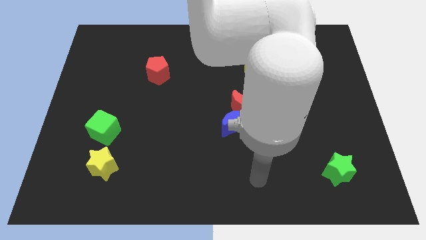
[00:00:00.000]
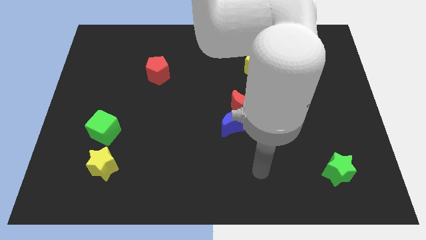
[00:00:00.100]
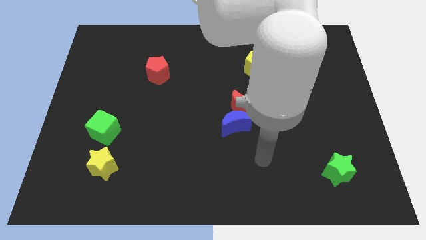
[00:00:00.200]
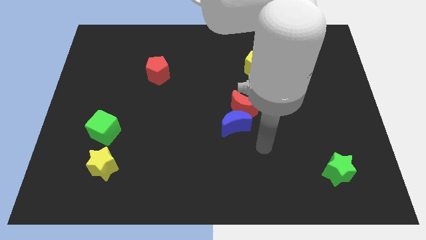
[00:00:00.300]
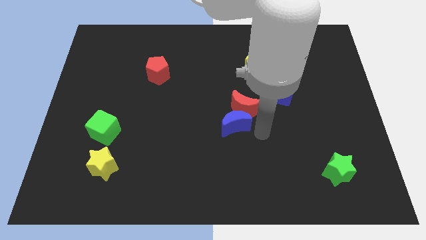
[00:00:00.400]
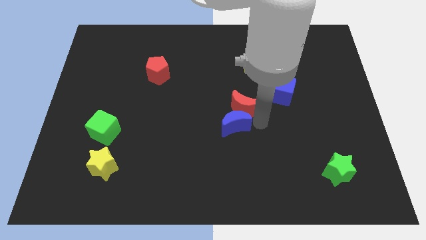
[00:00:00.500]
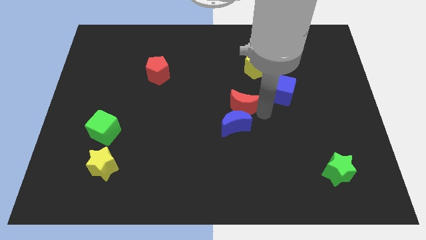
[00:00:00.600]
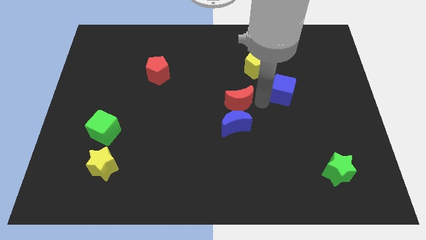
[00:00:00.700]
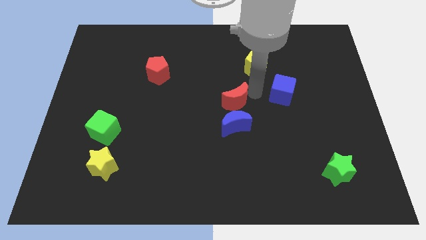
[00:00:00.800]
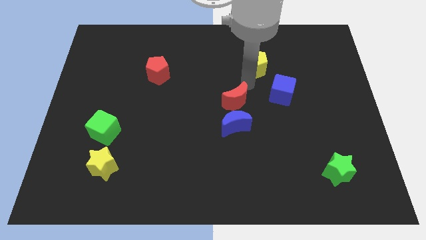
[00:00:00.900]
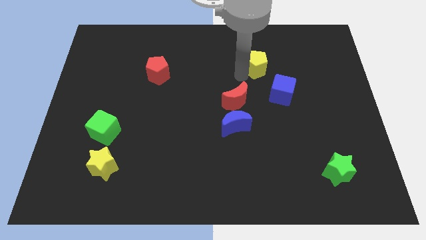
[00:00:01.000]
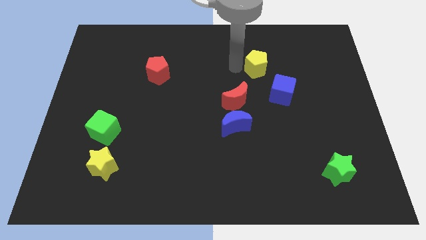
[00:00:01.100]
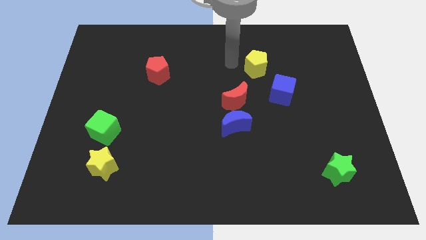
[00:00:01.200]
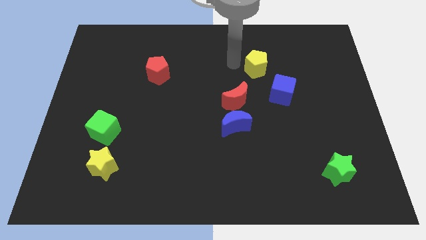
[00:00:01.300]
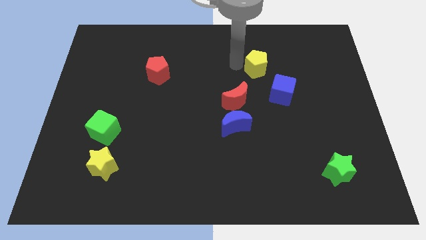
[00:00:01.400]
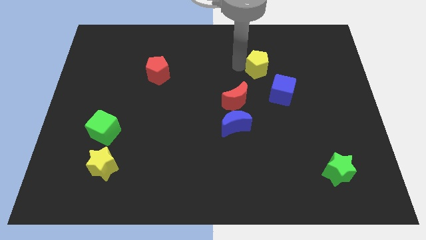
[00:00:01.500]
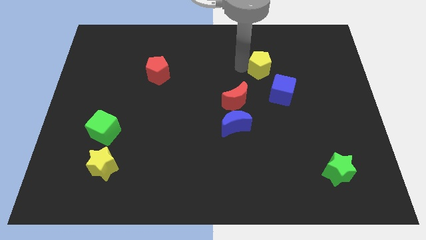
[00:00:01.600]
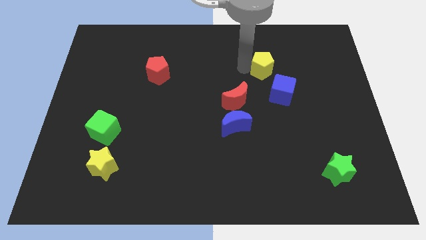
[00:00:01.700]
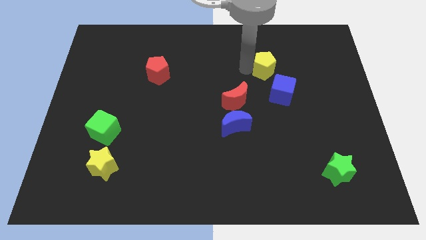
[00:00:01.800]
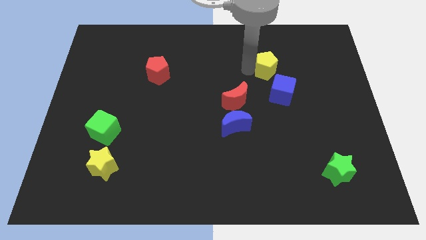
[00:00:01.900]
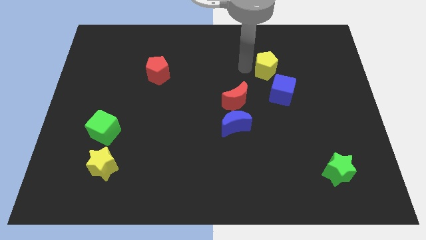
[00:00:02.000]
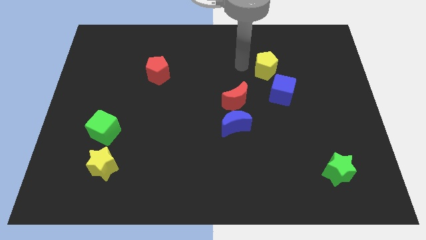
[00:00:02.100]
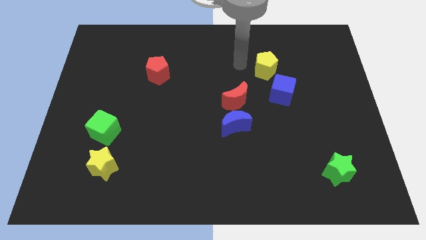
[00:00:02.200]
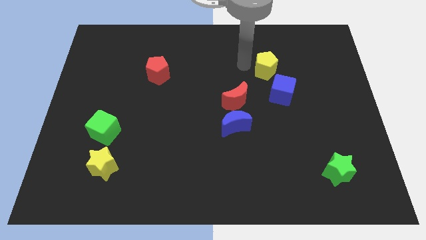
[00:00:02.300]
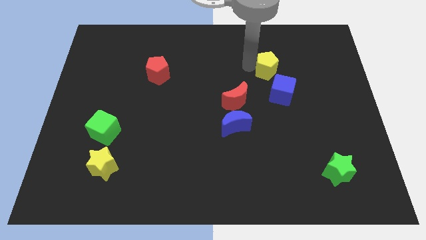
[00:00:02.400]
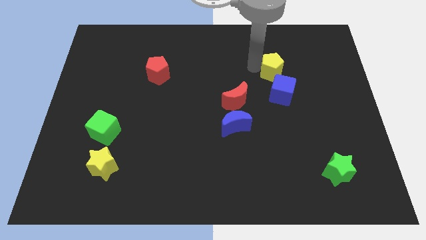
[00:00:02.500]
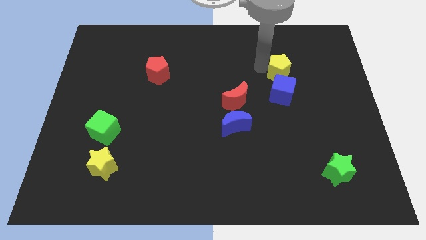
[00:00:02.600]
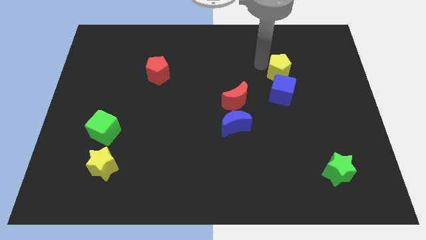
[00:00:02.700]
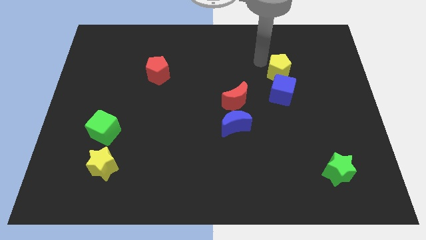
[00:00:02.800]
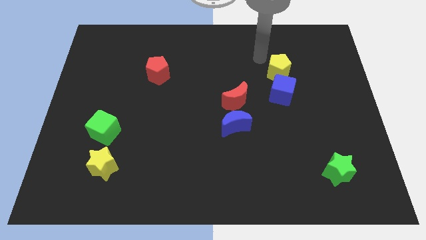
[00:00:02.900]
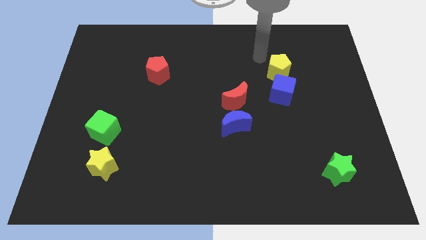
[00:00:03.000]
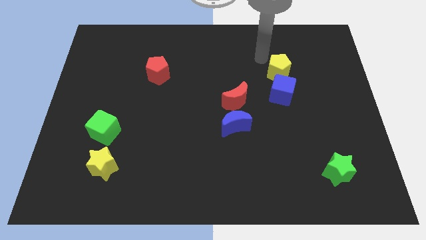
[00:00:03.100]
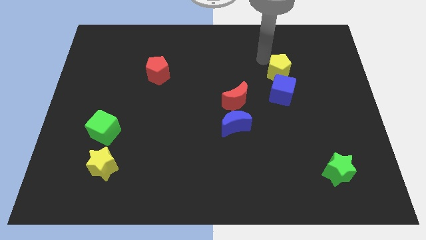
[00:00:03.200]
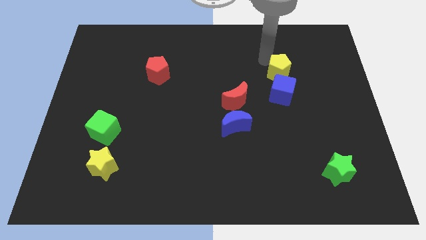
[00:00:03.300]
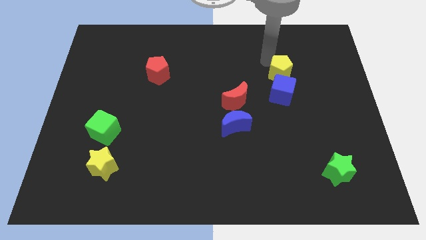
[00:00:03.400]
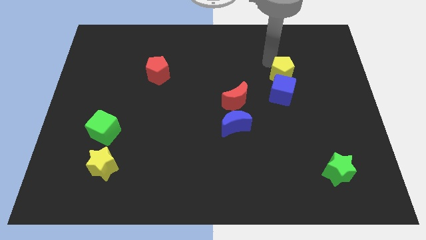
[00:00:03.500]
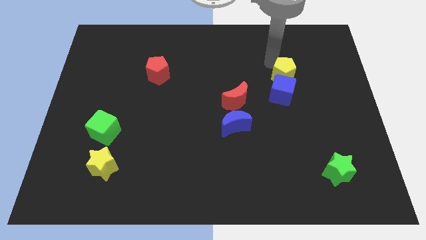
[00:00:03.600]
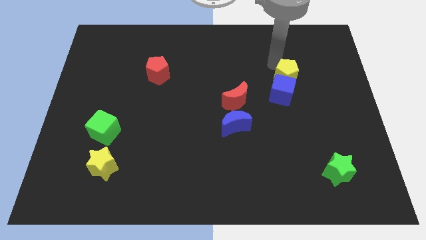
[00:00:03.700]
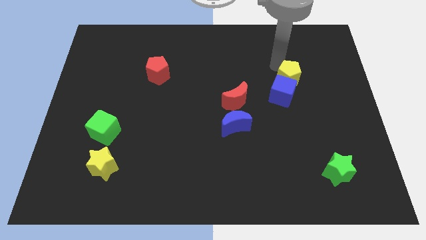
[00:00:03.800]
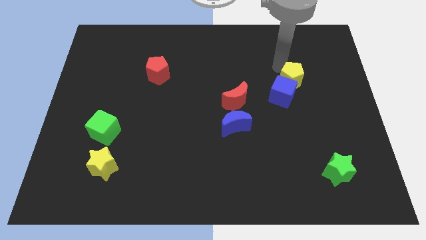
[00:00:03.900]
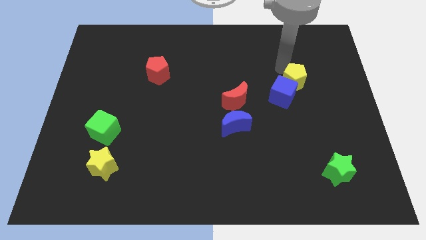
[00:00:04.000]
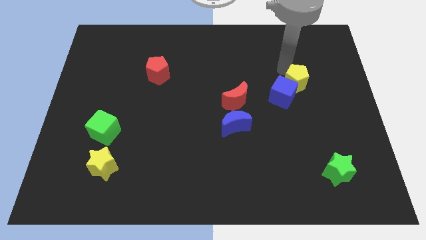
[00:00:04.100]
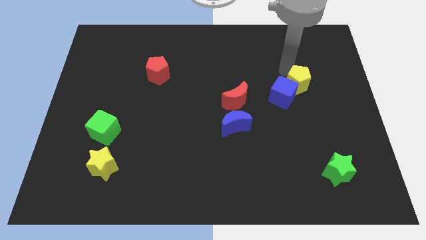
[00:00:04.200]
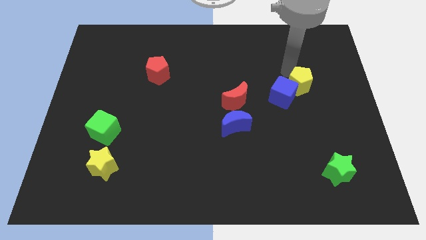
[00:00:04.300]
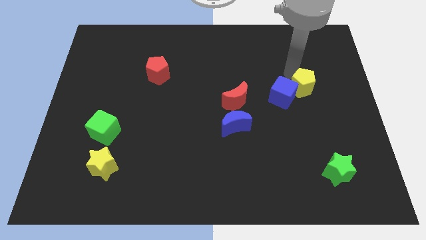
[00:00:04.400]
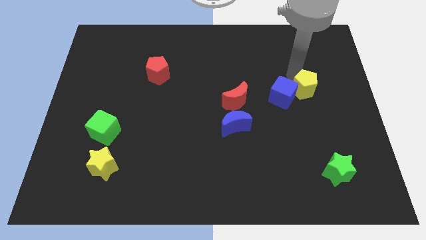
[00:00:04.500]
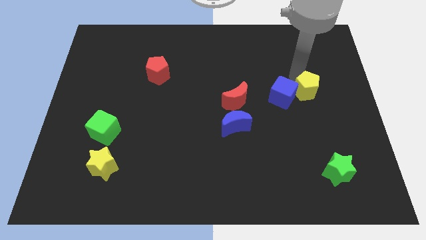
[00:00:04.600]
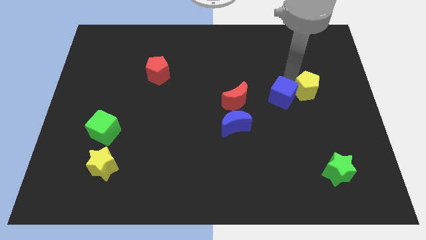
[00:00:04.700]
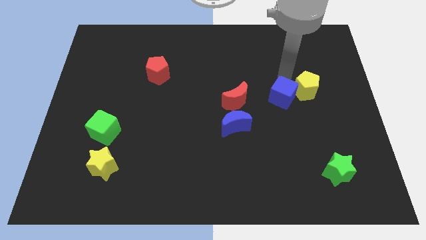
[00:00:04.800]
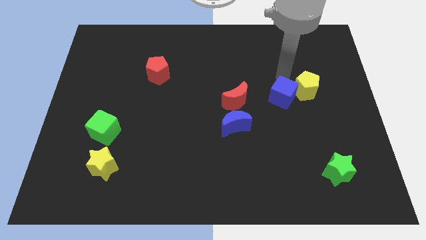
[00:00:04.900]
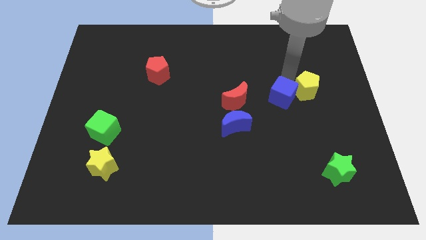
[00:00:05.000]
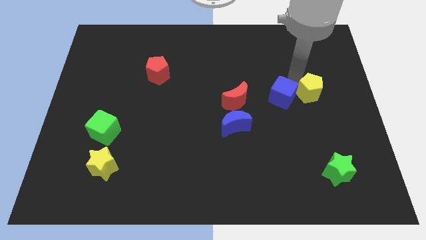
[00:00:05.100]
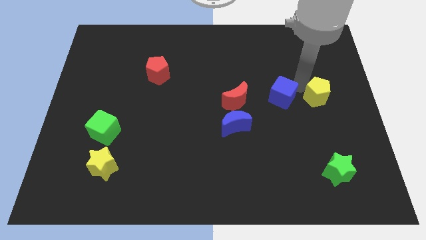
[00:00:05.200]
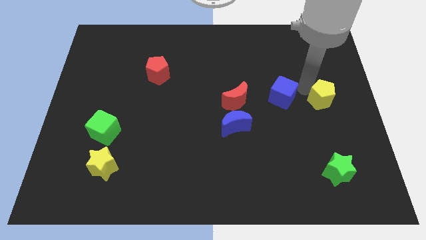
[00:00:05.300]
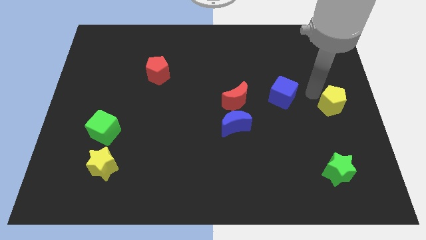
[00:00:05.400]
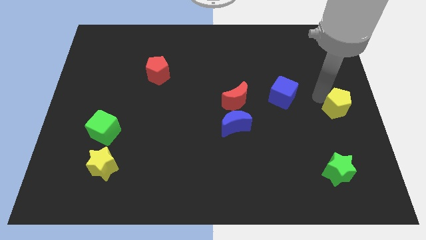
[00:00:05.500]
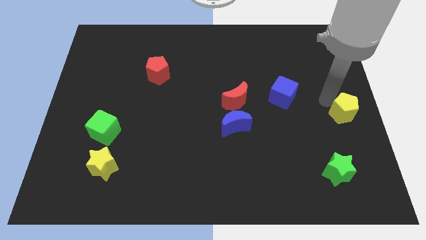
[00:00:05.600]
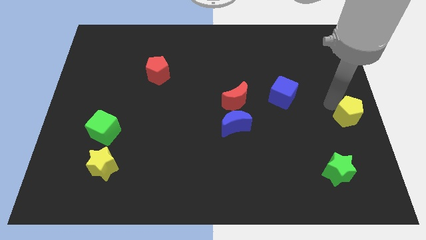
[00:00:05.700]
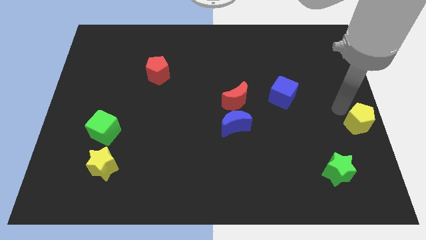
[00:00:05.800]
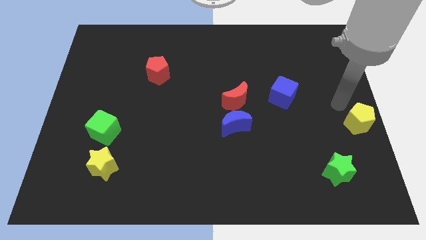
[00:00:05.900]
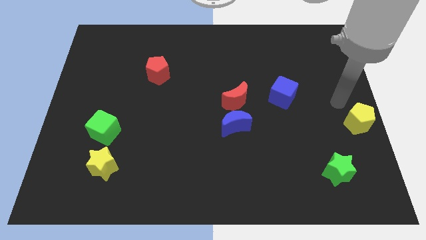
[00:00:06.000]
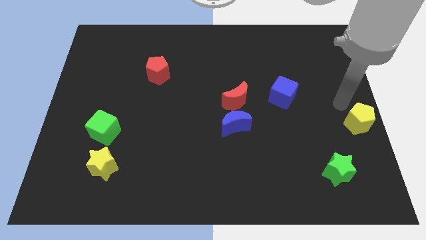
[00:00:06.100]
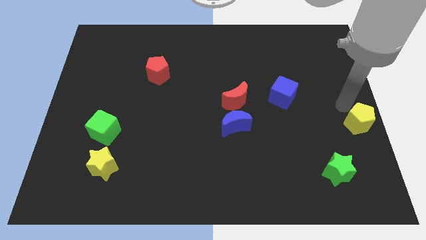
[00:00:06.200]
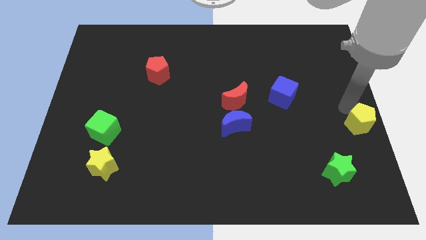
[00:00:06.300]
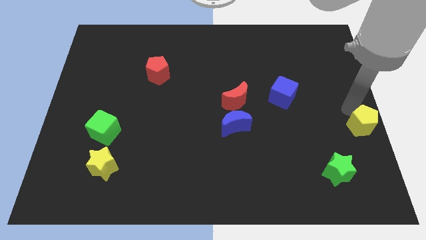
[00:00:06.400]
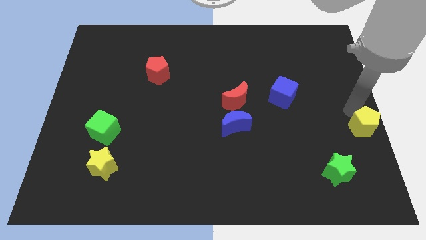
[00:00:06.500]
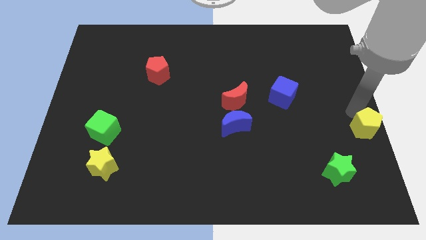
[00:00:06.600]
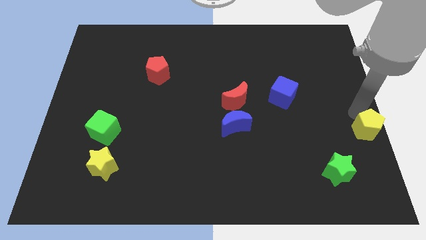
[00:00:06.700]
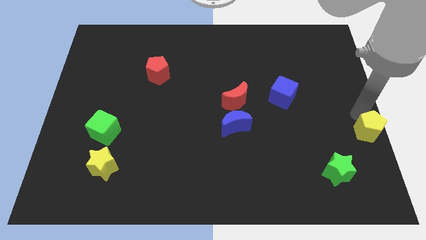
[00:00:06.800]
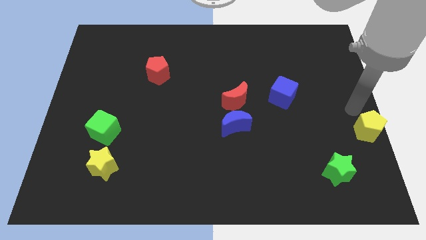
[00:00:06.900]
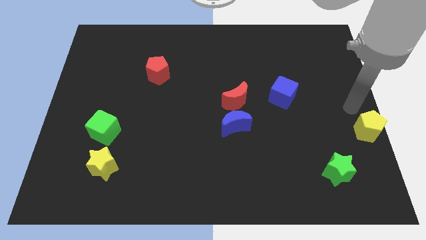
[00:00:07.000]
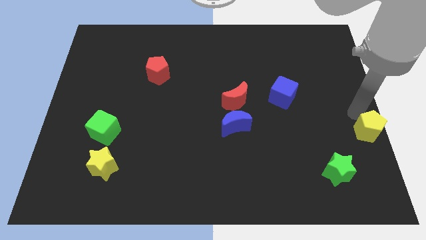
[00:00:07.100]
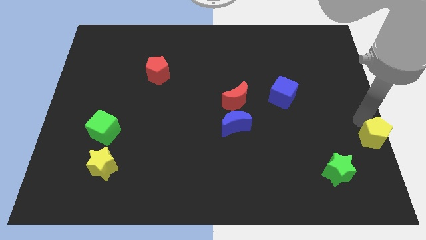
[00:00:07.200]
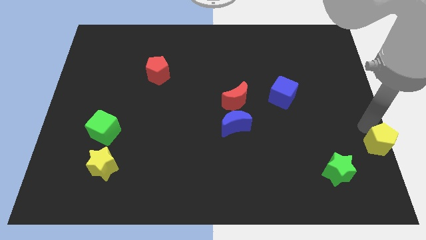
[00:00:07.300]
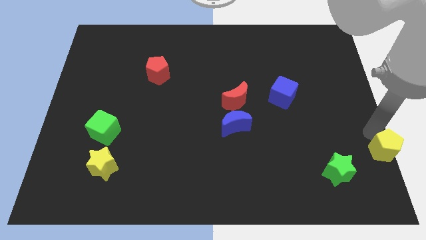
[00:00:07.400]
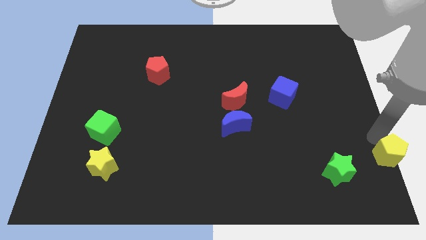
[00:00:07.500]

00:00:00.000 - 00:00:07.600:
push the yellow pentagon to the lower right corner
